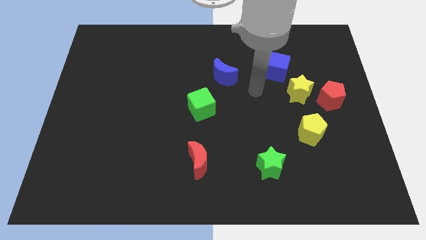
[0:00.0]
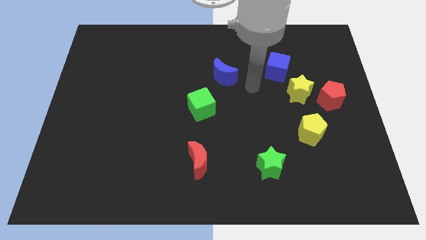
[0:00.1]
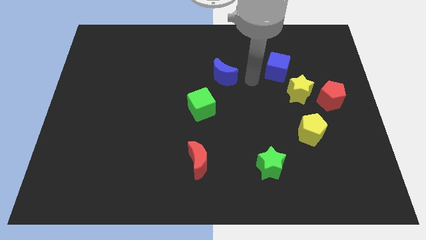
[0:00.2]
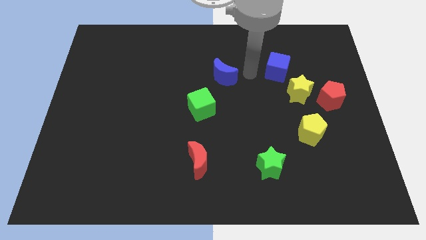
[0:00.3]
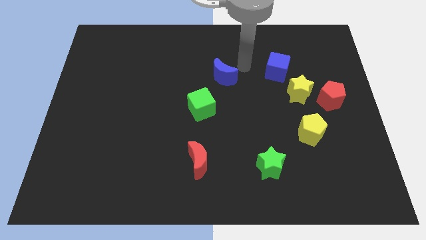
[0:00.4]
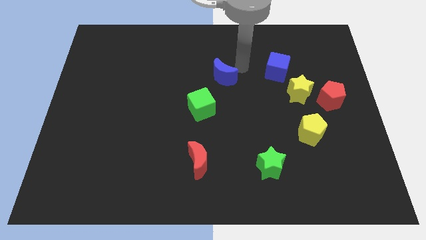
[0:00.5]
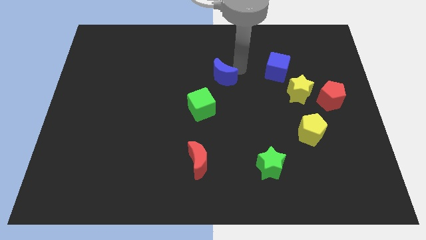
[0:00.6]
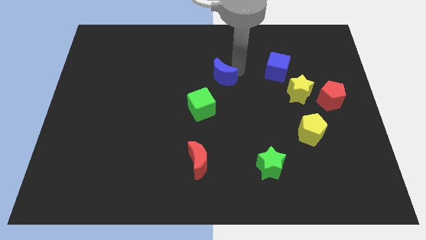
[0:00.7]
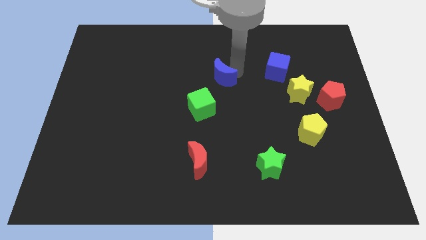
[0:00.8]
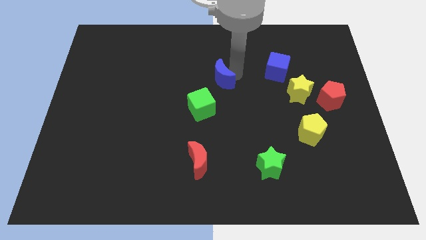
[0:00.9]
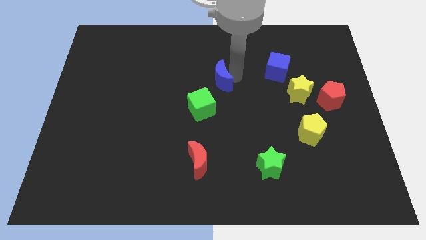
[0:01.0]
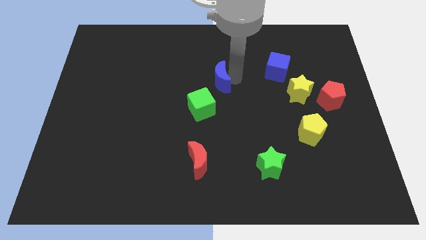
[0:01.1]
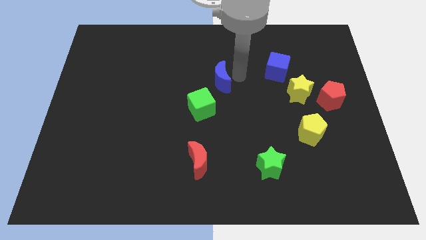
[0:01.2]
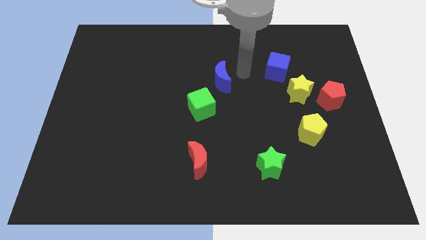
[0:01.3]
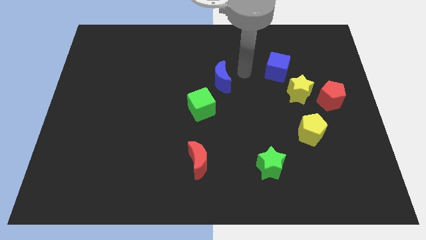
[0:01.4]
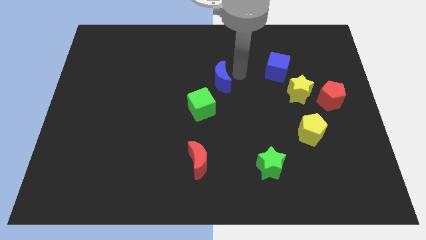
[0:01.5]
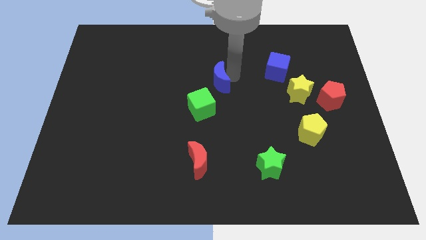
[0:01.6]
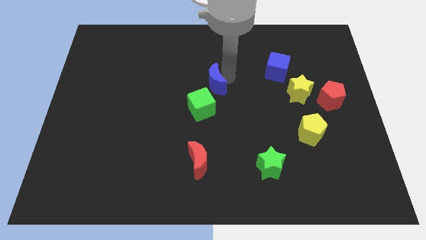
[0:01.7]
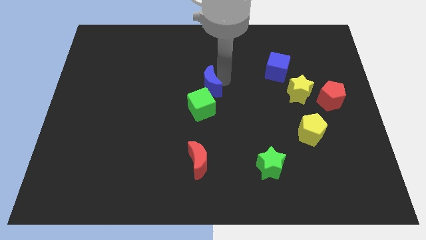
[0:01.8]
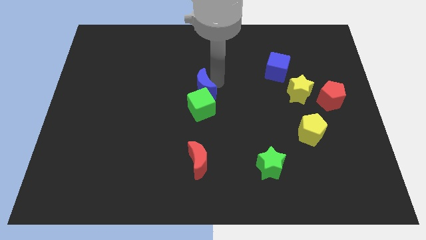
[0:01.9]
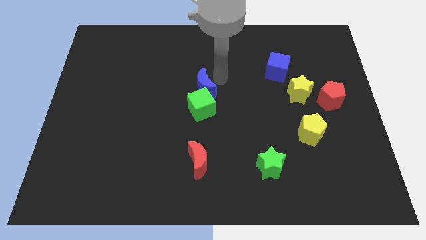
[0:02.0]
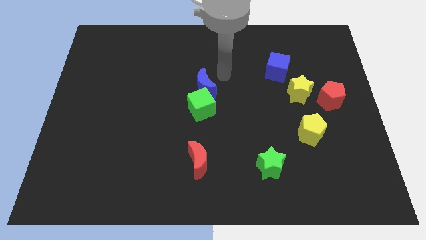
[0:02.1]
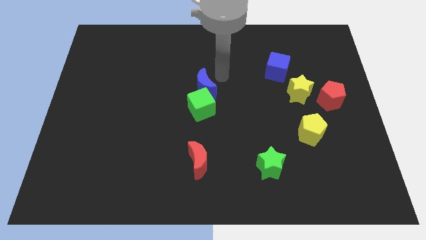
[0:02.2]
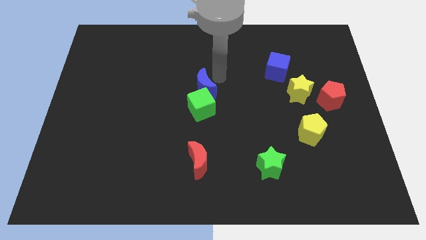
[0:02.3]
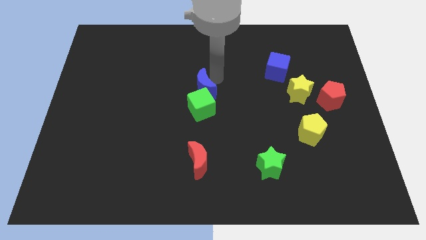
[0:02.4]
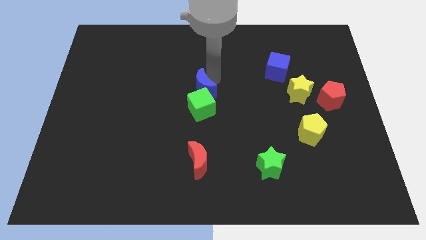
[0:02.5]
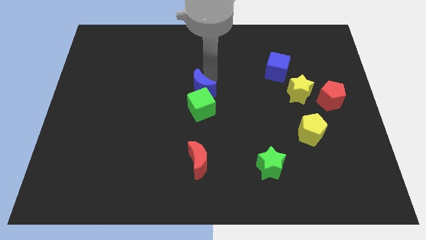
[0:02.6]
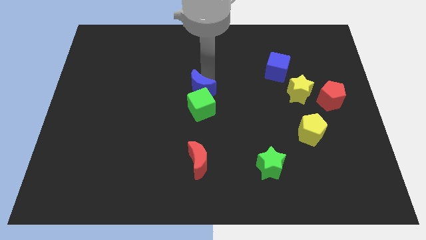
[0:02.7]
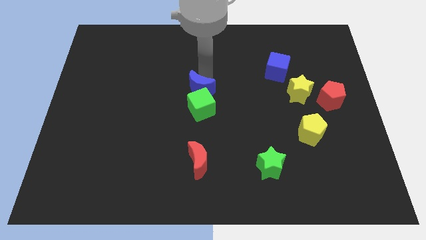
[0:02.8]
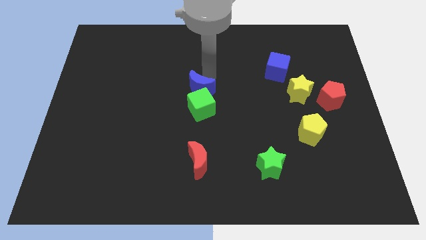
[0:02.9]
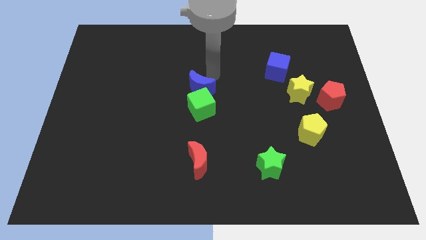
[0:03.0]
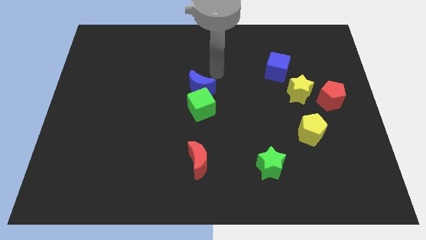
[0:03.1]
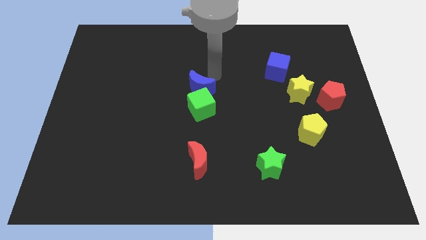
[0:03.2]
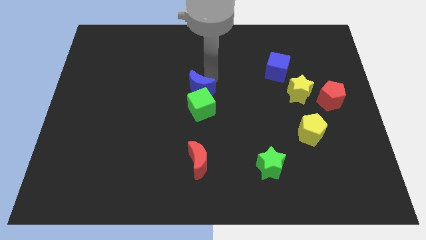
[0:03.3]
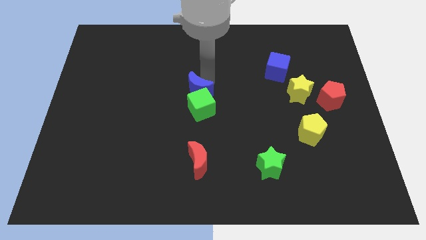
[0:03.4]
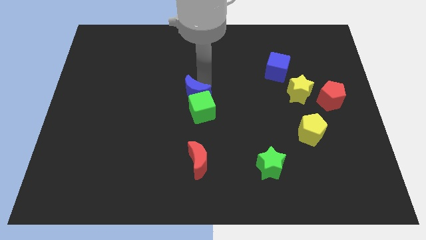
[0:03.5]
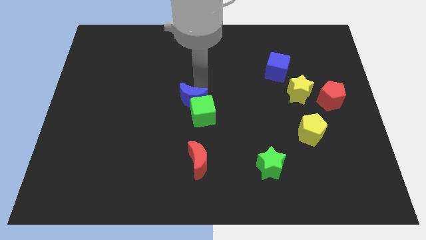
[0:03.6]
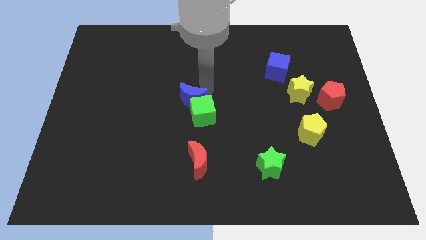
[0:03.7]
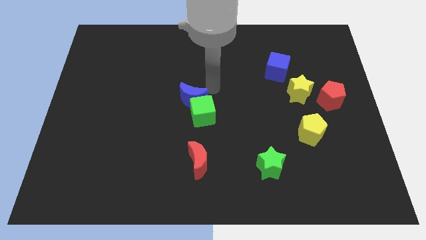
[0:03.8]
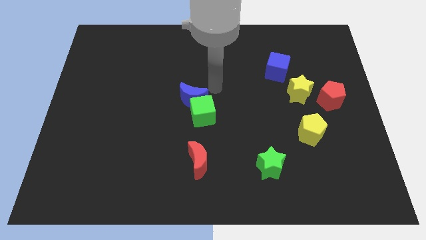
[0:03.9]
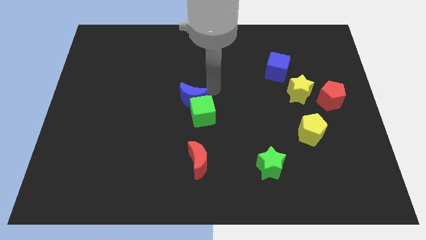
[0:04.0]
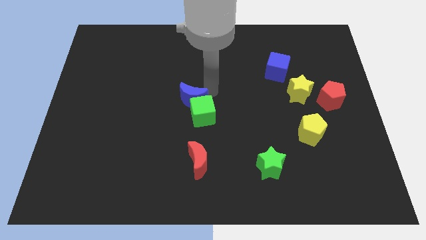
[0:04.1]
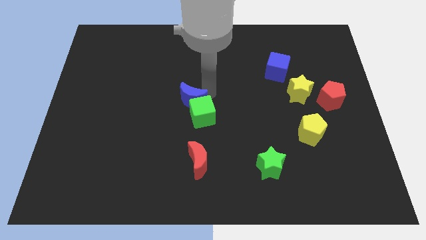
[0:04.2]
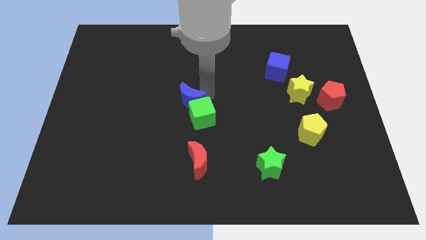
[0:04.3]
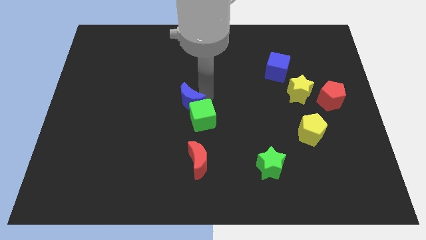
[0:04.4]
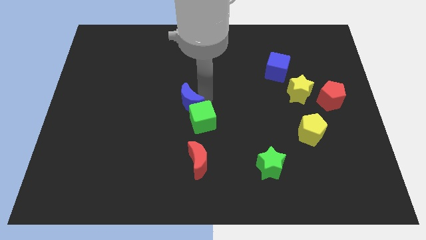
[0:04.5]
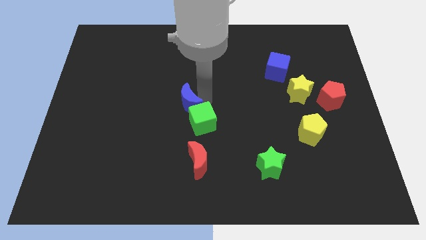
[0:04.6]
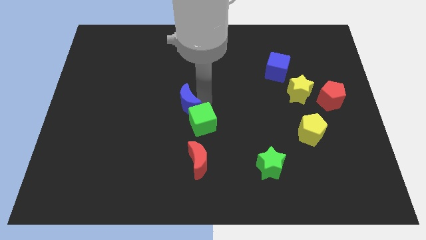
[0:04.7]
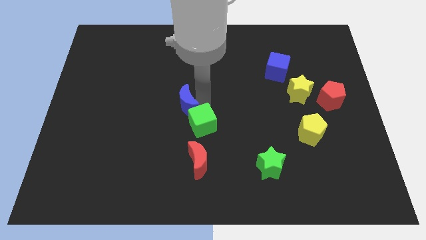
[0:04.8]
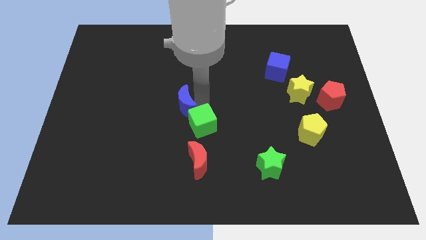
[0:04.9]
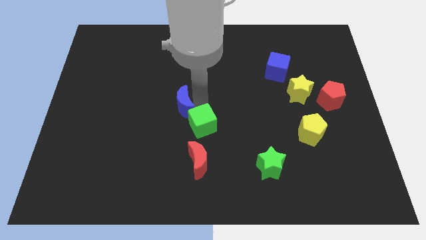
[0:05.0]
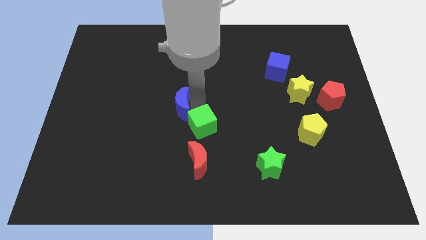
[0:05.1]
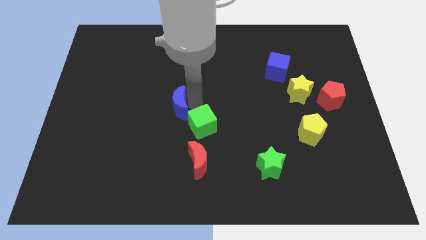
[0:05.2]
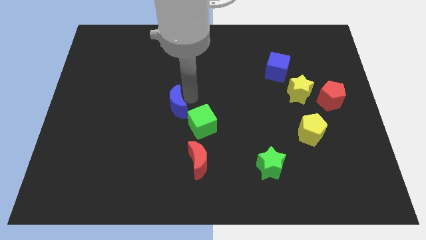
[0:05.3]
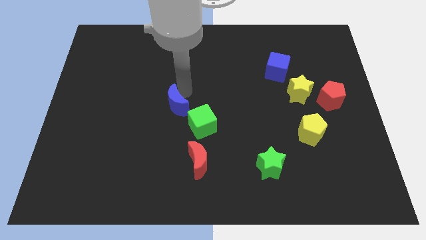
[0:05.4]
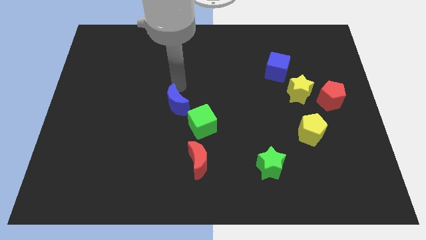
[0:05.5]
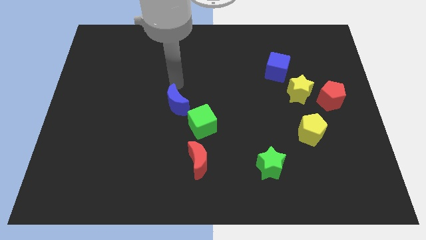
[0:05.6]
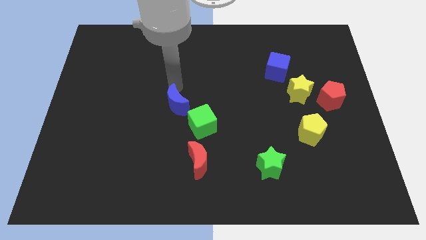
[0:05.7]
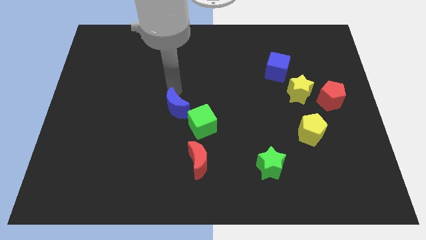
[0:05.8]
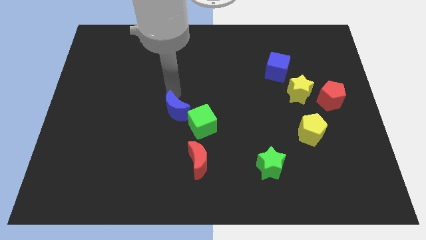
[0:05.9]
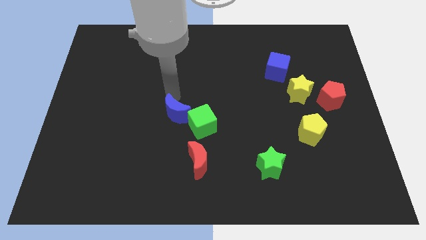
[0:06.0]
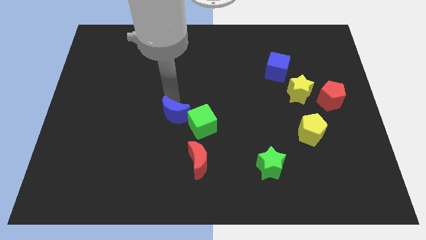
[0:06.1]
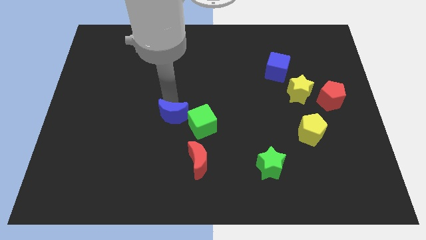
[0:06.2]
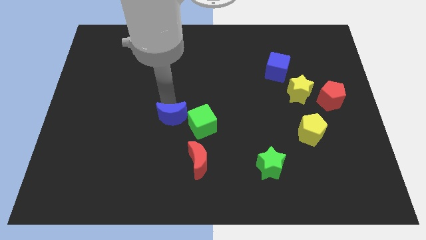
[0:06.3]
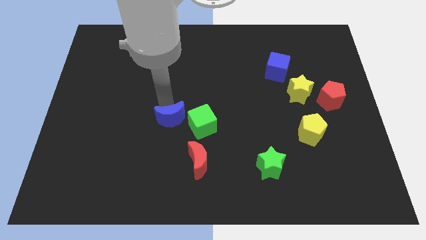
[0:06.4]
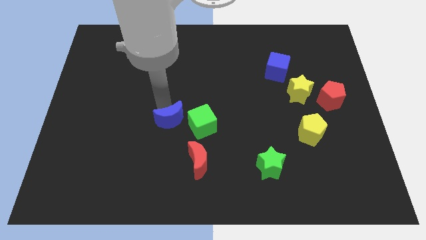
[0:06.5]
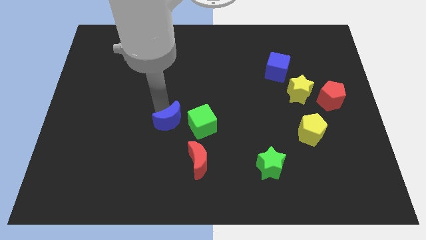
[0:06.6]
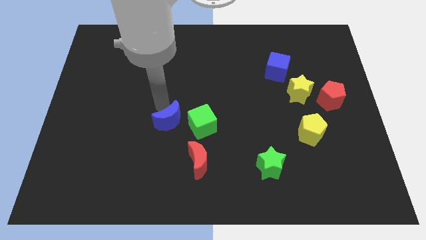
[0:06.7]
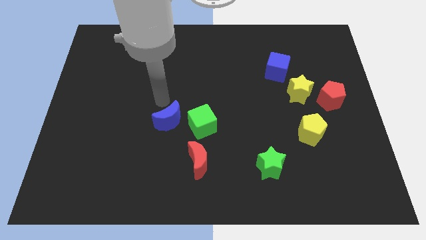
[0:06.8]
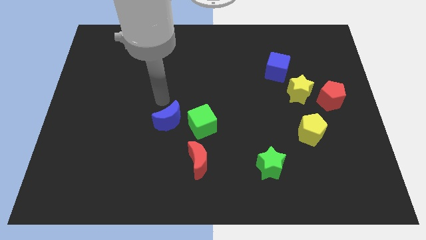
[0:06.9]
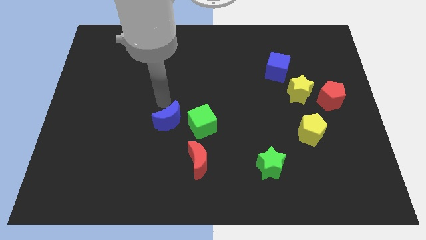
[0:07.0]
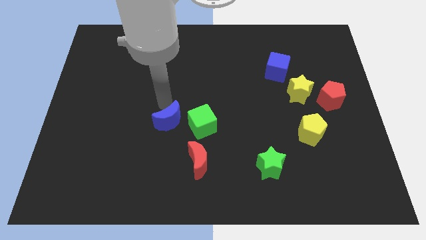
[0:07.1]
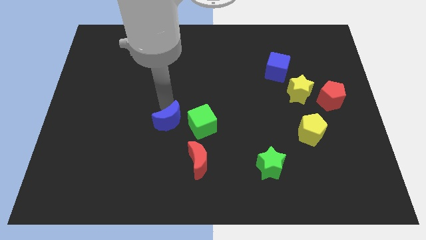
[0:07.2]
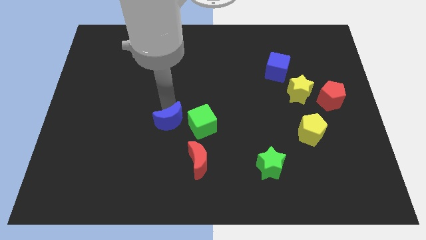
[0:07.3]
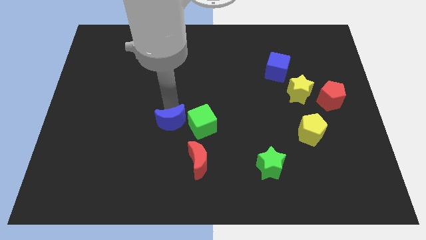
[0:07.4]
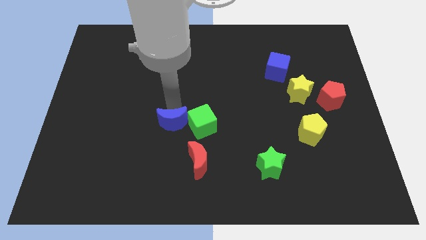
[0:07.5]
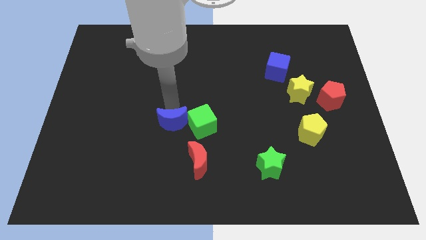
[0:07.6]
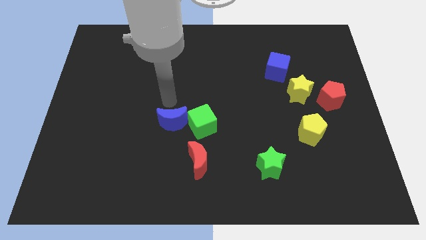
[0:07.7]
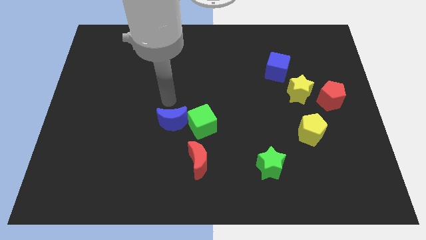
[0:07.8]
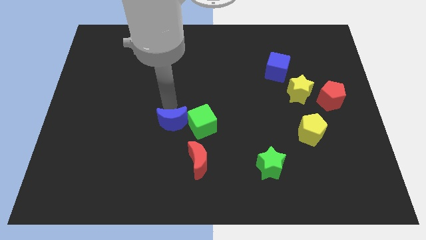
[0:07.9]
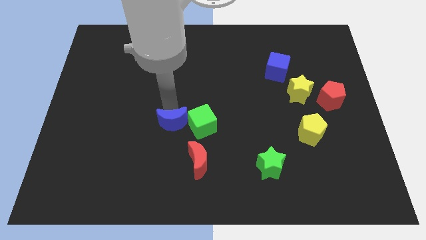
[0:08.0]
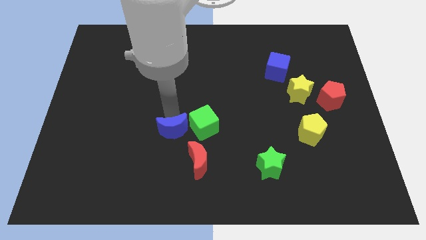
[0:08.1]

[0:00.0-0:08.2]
put the blue moon to the bottom left side of the green cube

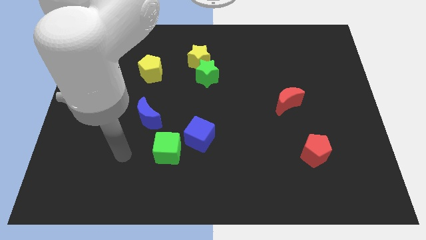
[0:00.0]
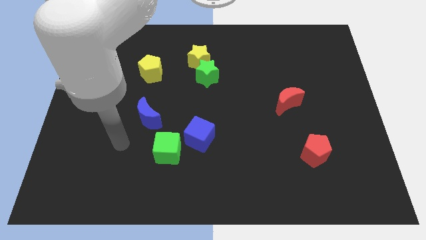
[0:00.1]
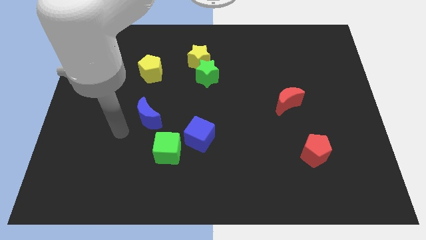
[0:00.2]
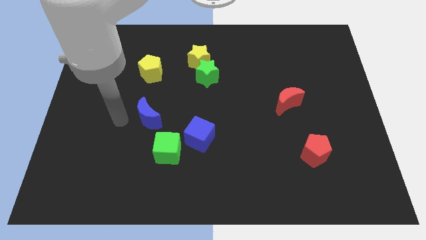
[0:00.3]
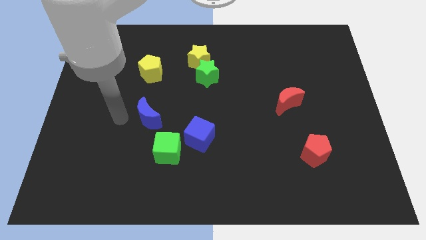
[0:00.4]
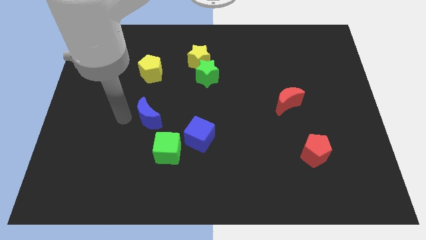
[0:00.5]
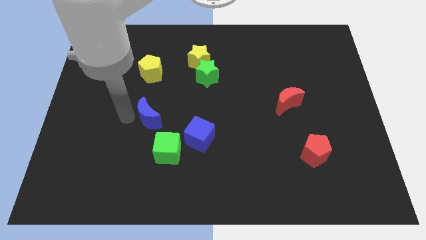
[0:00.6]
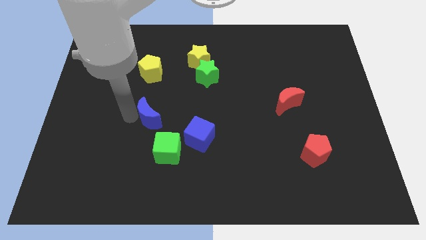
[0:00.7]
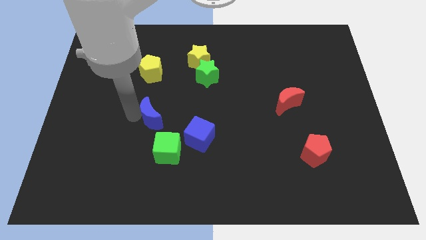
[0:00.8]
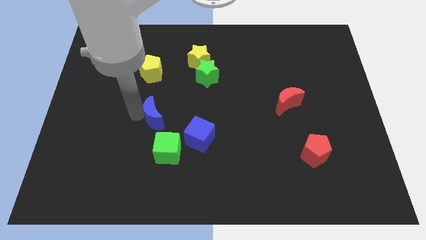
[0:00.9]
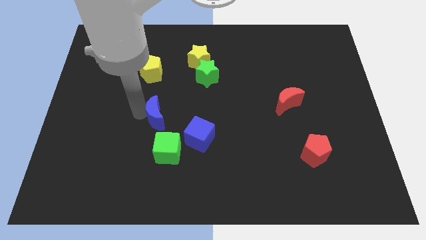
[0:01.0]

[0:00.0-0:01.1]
put the blue moon to the top left of the blue cube
